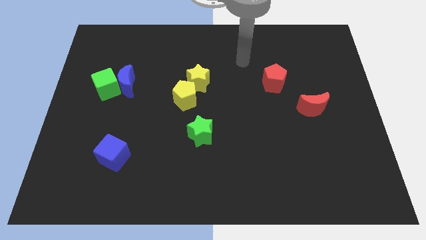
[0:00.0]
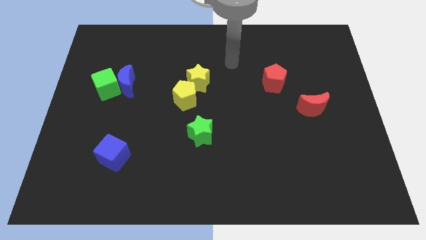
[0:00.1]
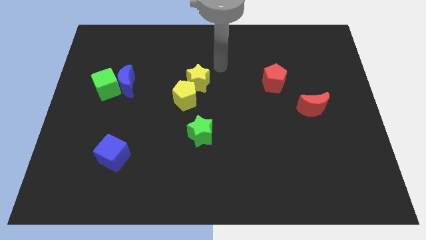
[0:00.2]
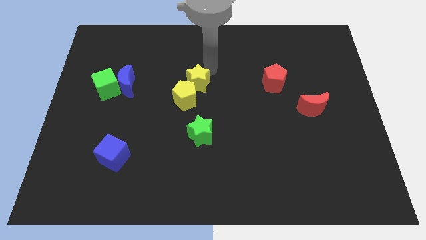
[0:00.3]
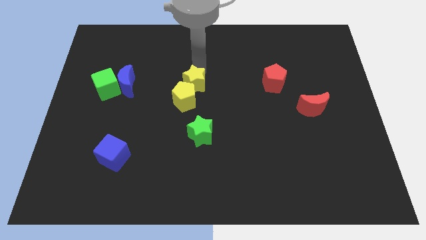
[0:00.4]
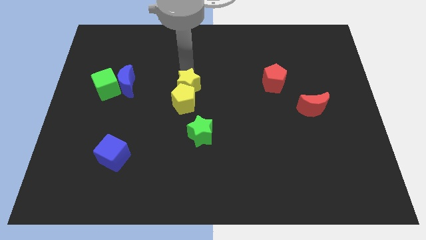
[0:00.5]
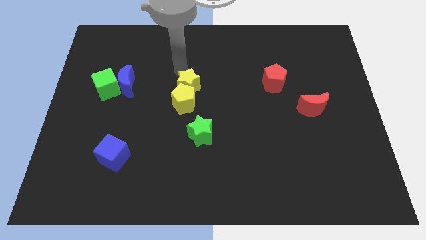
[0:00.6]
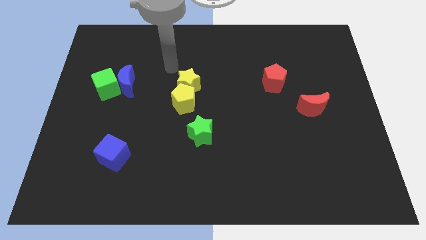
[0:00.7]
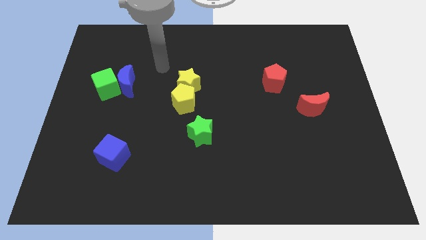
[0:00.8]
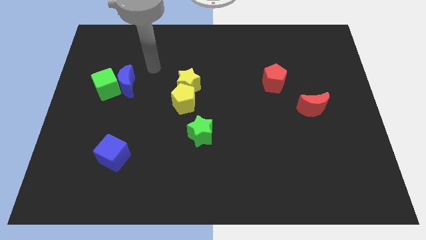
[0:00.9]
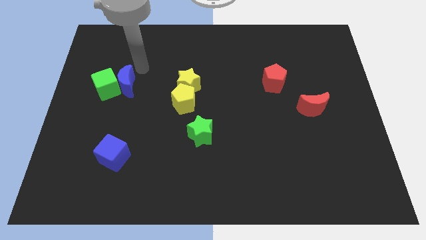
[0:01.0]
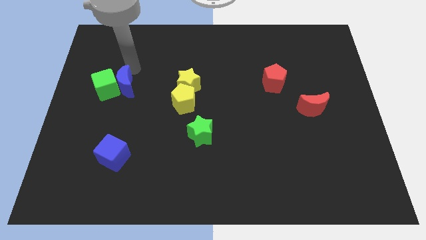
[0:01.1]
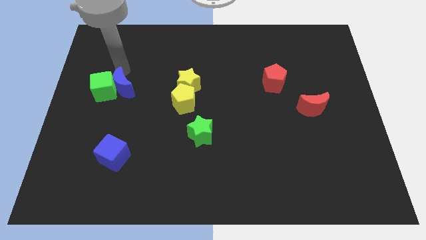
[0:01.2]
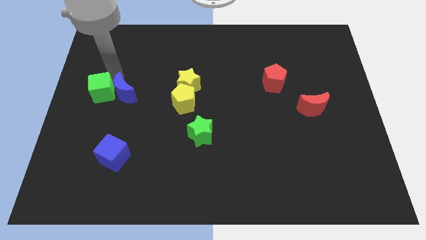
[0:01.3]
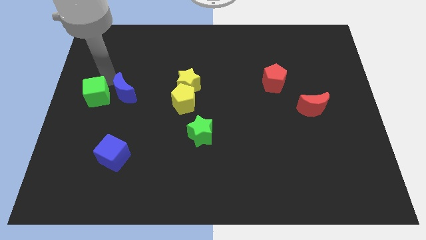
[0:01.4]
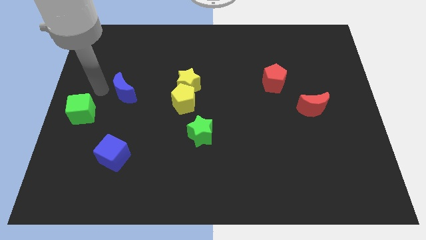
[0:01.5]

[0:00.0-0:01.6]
separate the blue moon from the green cube

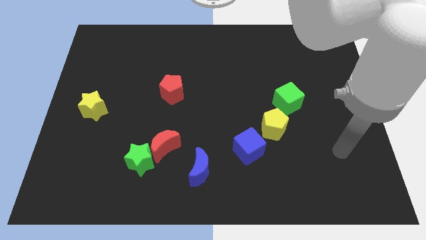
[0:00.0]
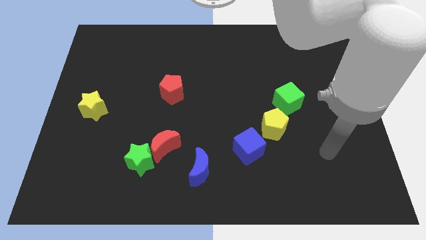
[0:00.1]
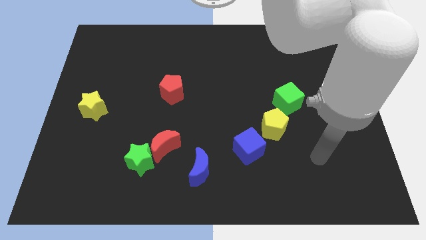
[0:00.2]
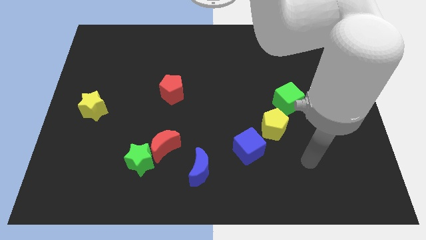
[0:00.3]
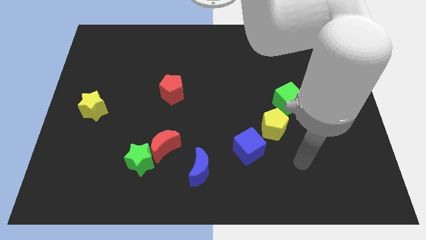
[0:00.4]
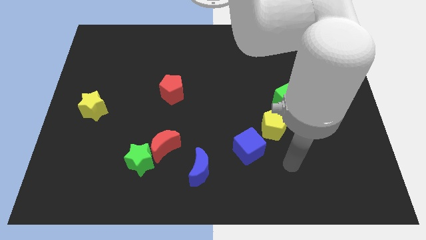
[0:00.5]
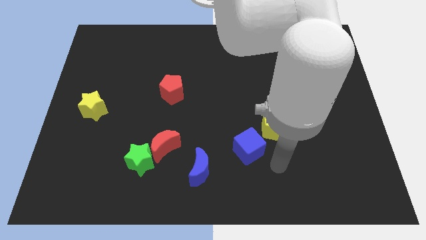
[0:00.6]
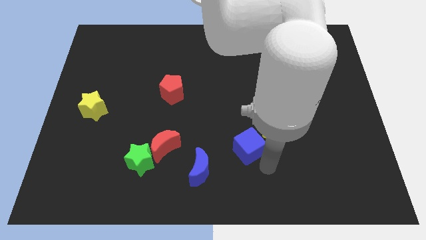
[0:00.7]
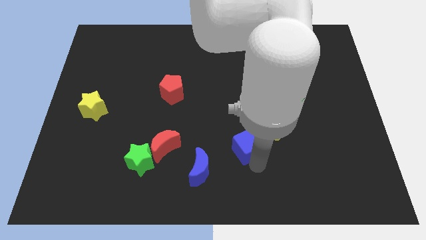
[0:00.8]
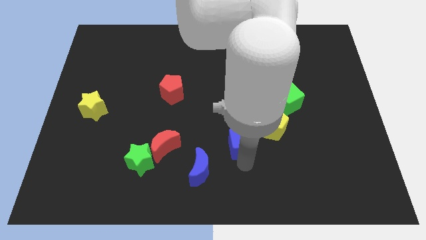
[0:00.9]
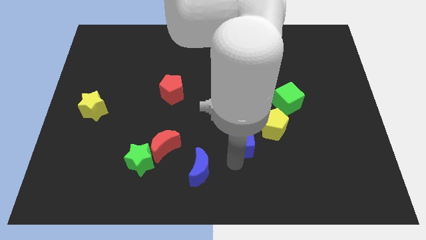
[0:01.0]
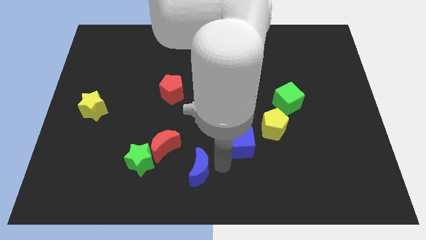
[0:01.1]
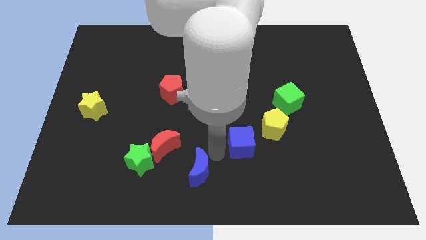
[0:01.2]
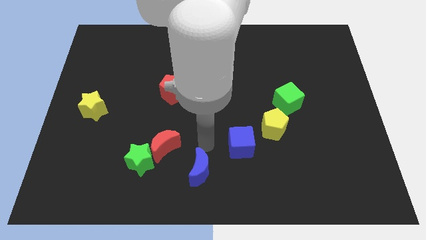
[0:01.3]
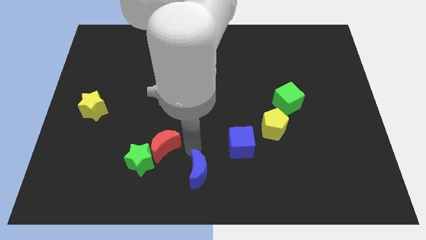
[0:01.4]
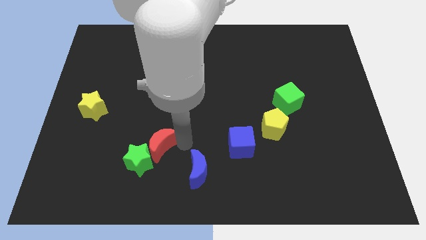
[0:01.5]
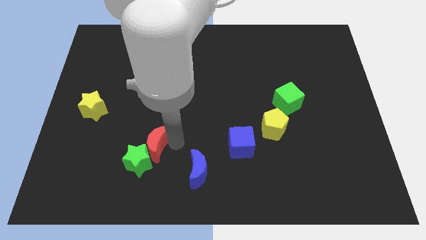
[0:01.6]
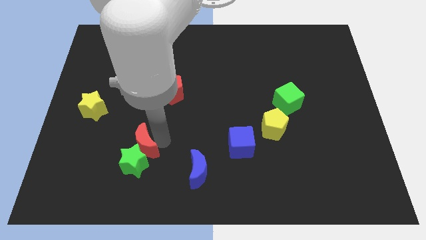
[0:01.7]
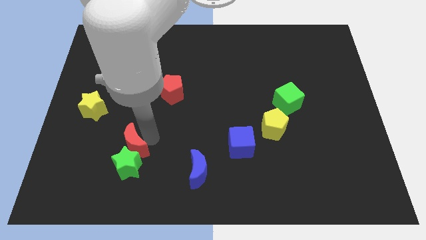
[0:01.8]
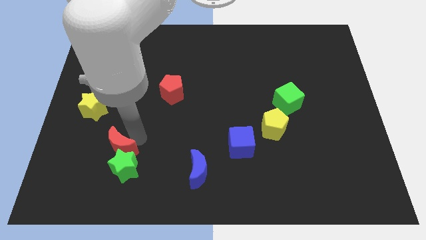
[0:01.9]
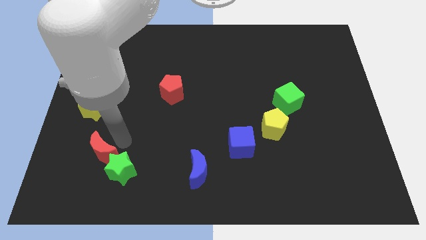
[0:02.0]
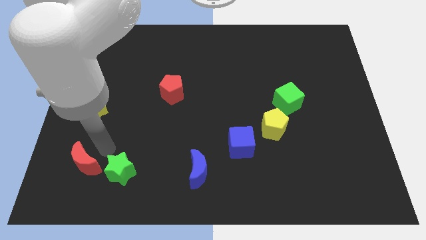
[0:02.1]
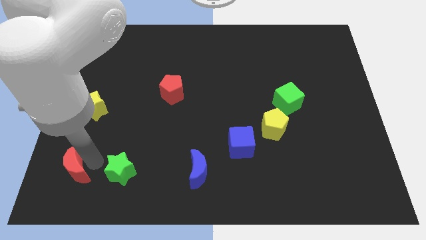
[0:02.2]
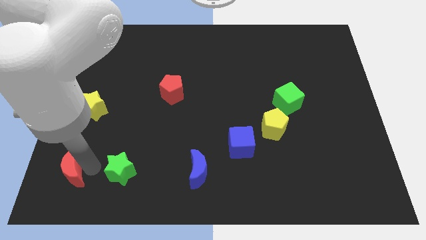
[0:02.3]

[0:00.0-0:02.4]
pull the green star apart from the red moon

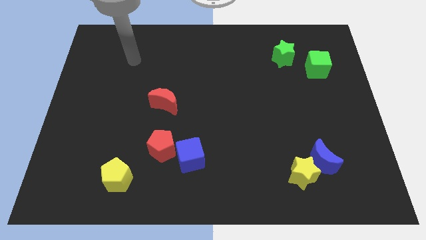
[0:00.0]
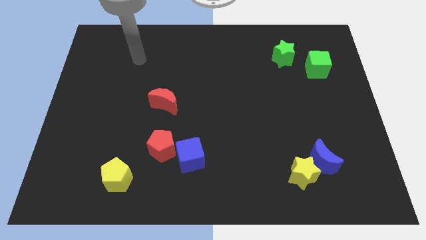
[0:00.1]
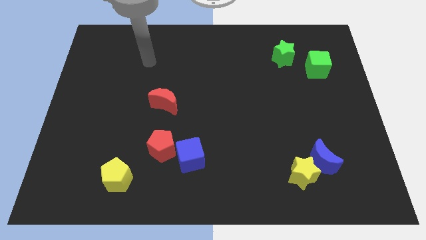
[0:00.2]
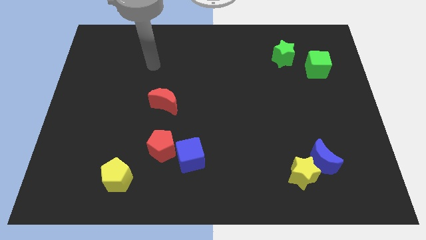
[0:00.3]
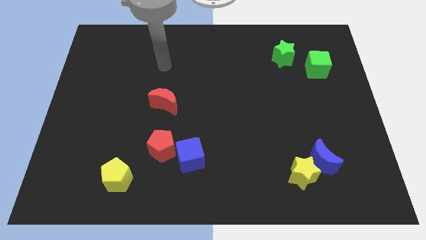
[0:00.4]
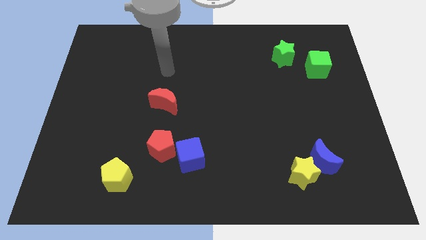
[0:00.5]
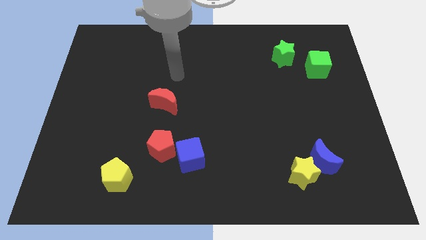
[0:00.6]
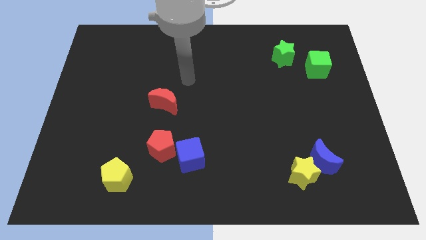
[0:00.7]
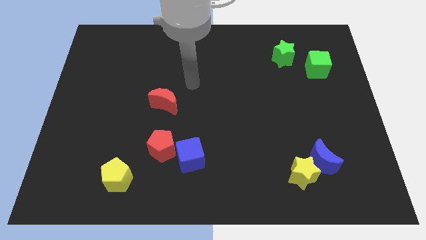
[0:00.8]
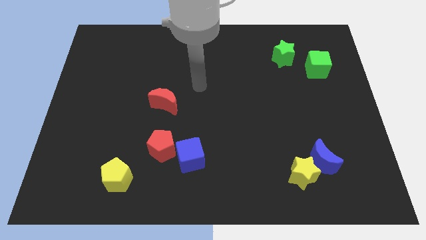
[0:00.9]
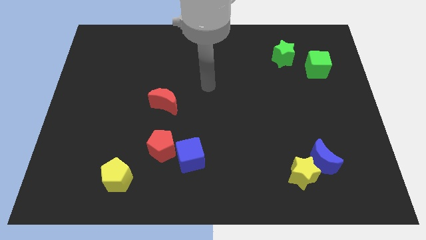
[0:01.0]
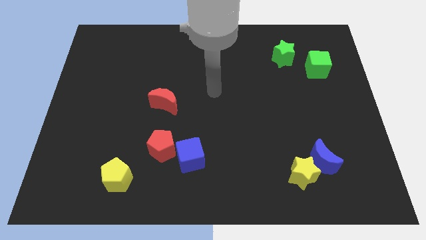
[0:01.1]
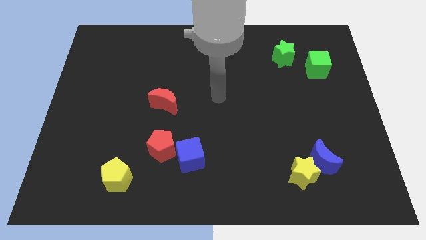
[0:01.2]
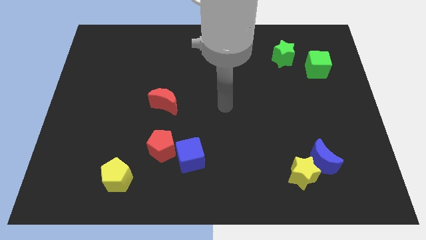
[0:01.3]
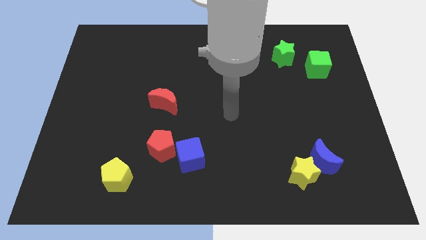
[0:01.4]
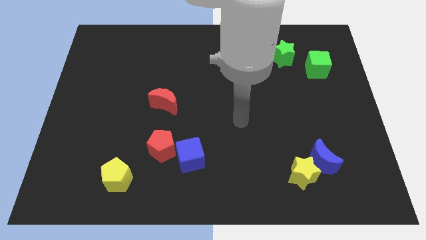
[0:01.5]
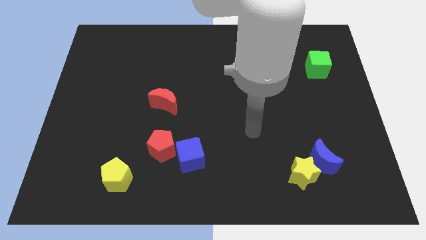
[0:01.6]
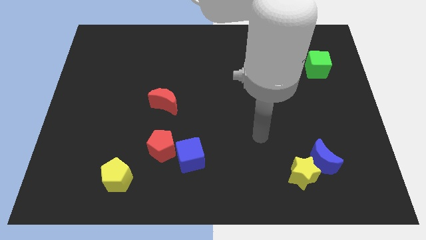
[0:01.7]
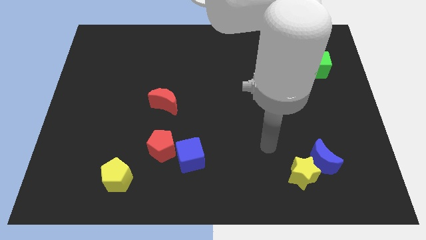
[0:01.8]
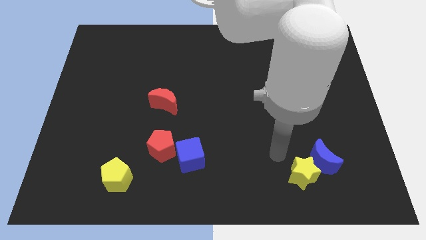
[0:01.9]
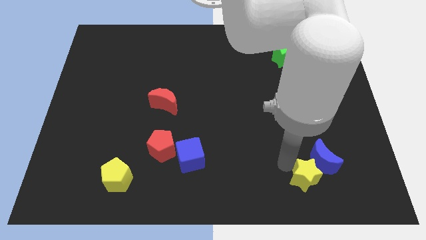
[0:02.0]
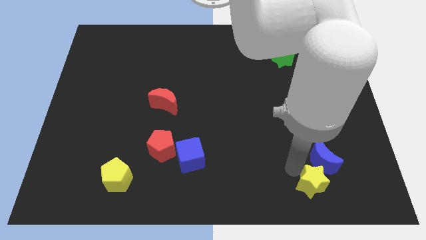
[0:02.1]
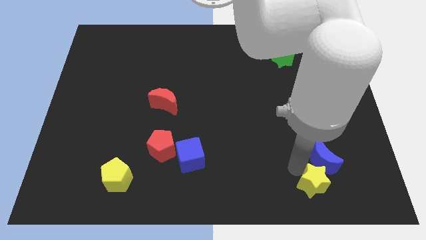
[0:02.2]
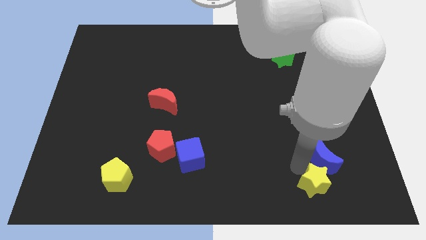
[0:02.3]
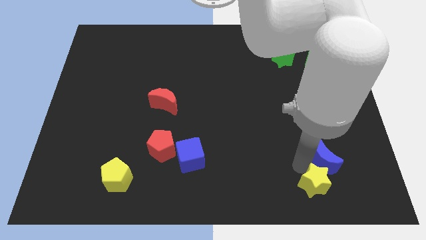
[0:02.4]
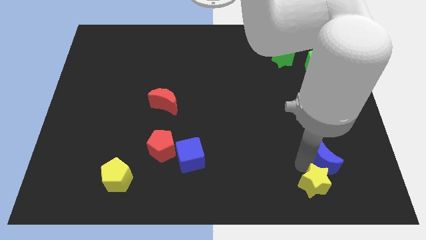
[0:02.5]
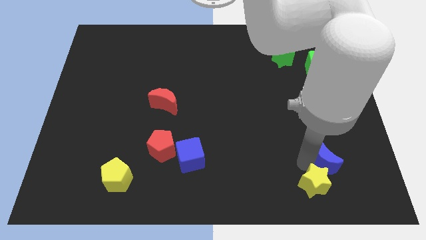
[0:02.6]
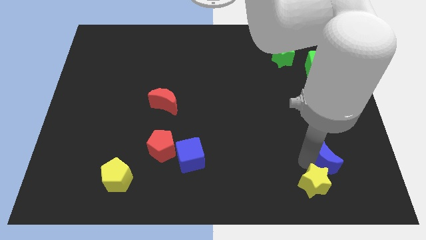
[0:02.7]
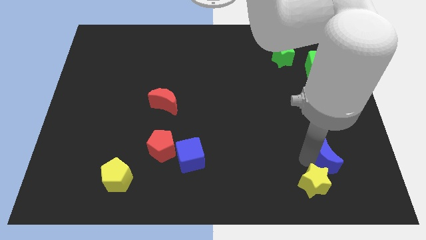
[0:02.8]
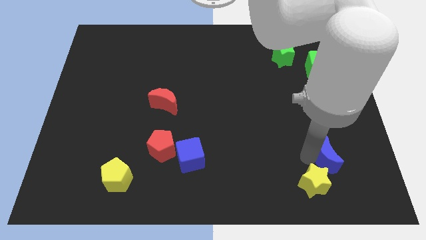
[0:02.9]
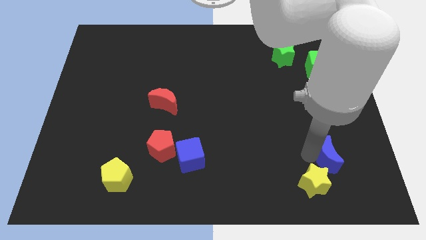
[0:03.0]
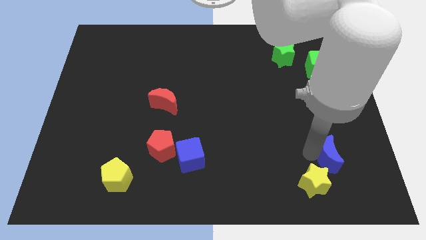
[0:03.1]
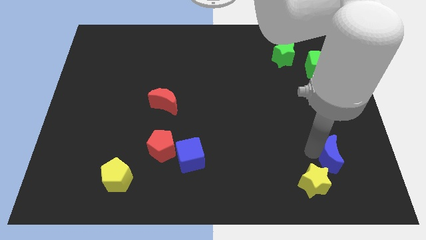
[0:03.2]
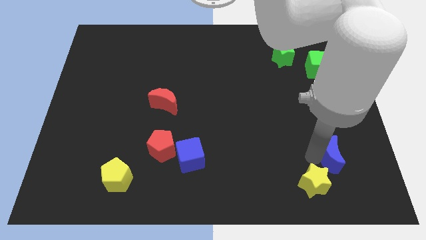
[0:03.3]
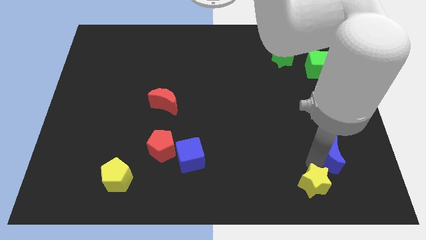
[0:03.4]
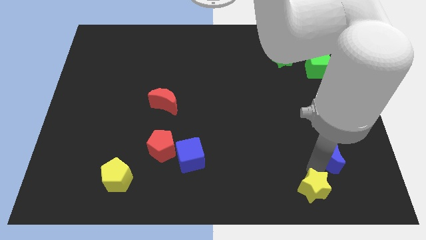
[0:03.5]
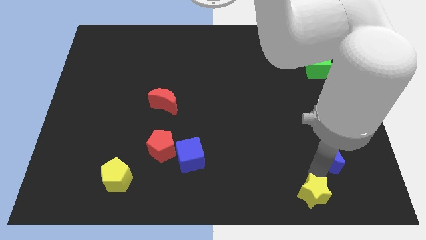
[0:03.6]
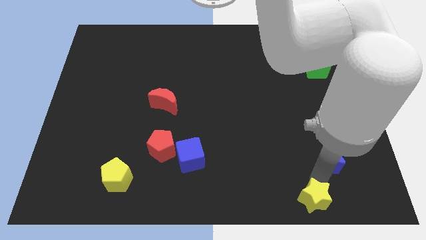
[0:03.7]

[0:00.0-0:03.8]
pull the blue moon apart from the yellow star

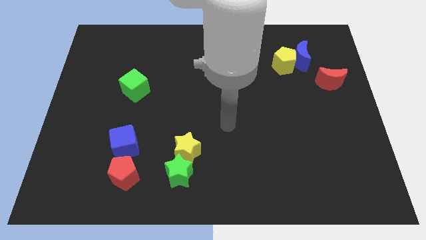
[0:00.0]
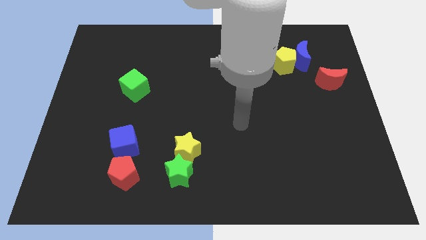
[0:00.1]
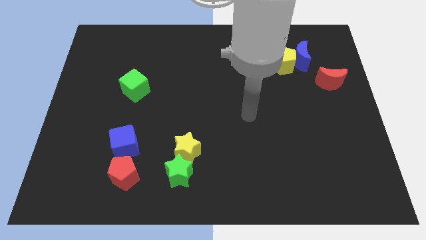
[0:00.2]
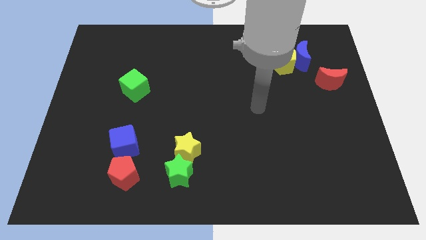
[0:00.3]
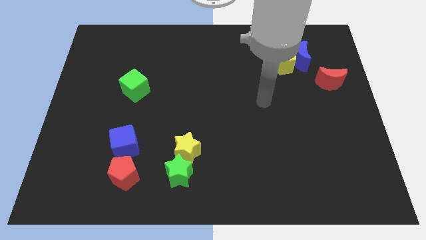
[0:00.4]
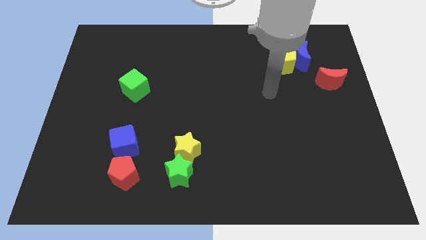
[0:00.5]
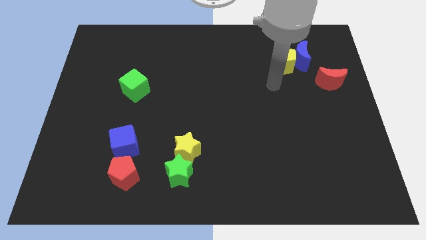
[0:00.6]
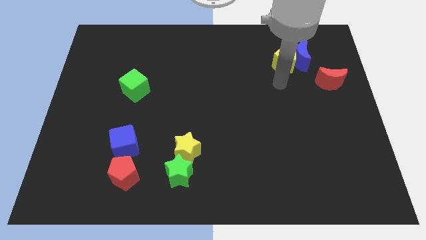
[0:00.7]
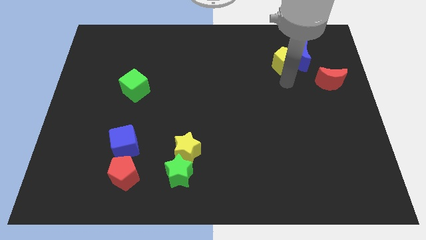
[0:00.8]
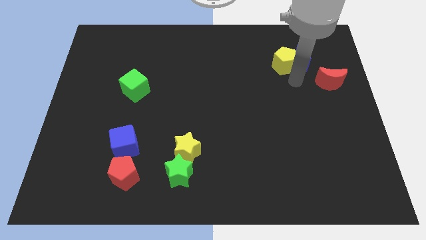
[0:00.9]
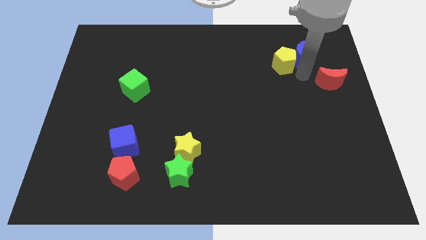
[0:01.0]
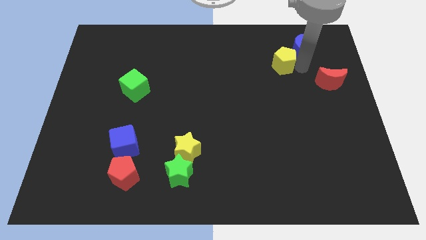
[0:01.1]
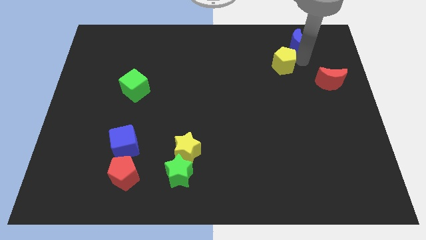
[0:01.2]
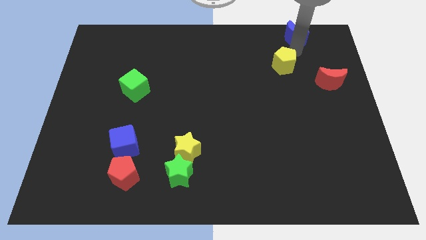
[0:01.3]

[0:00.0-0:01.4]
move the yellow pentagon away from the blue moon

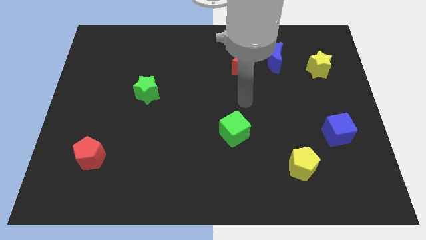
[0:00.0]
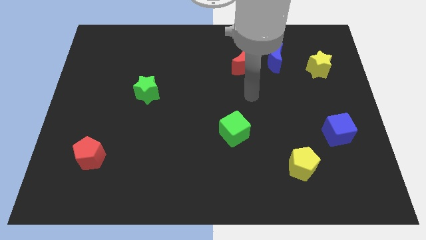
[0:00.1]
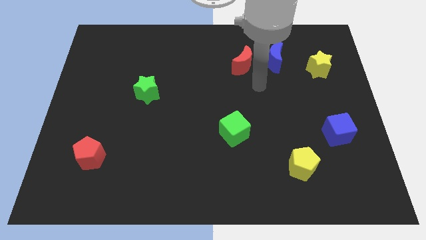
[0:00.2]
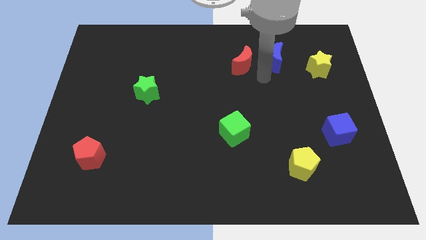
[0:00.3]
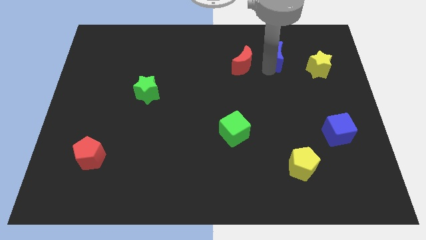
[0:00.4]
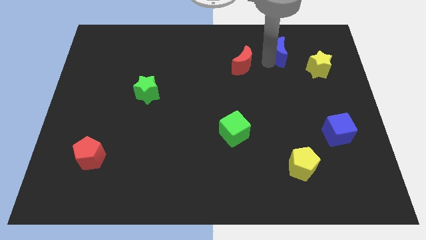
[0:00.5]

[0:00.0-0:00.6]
move the red moon away from the blue moon
